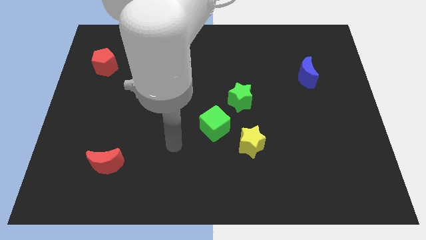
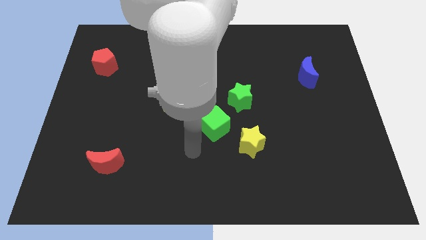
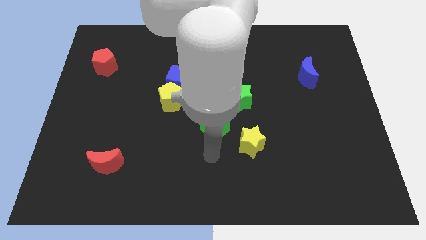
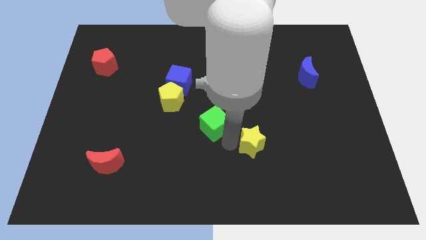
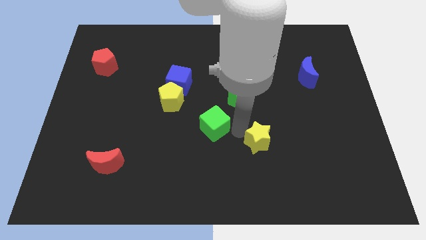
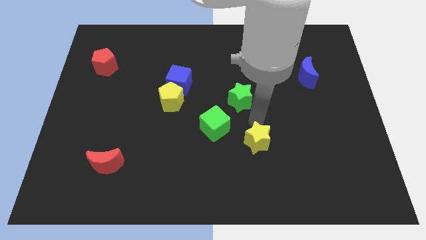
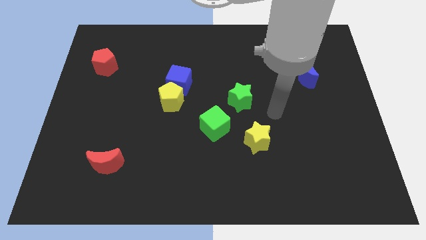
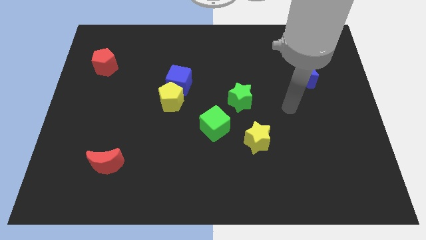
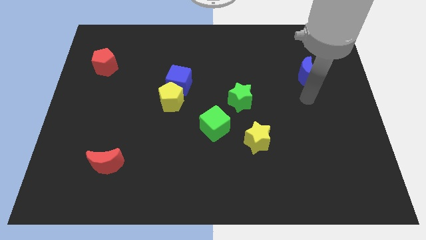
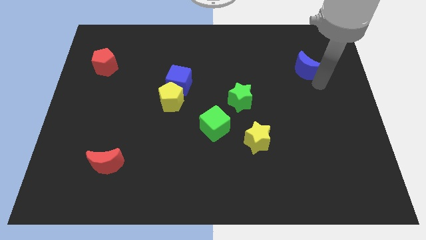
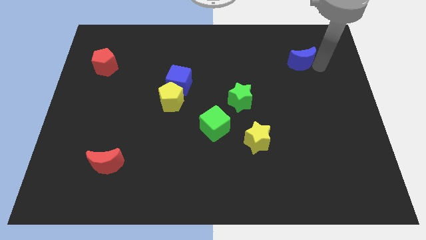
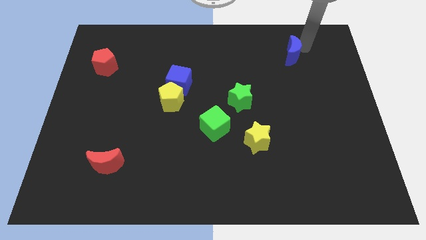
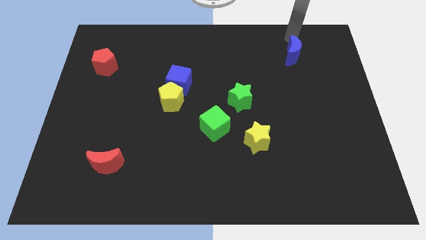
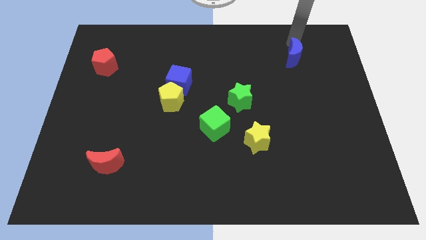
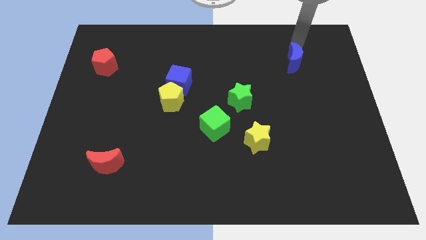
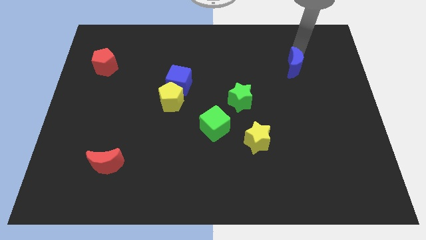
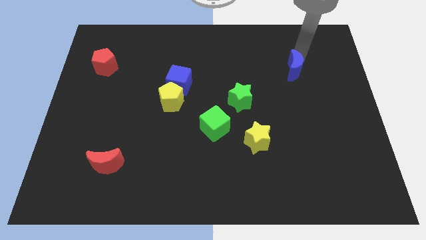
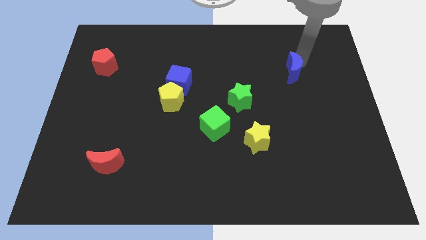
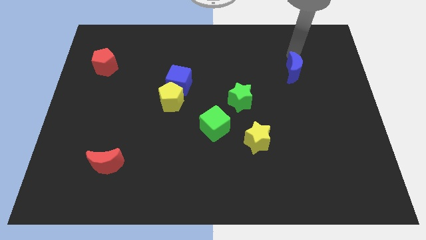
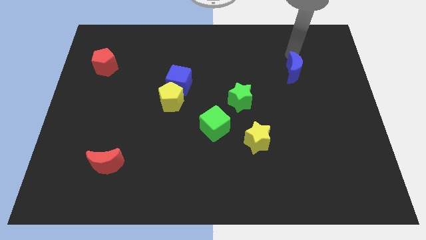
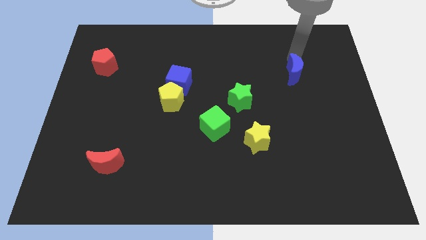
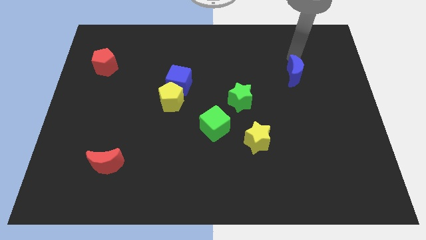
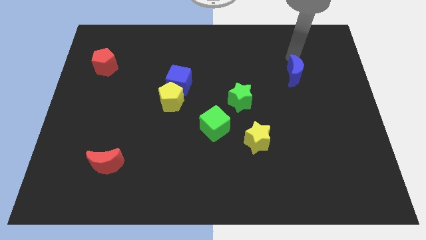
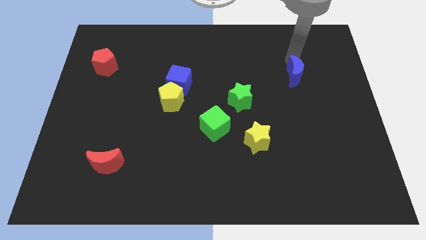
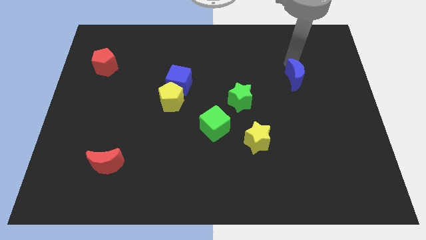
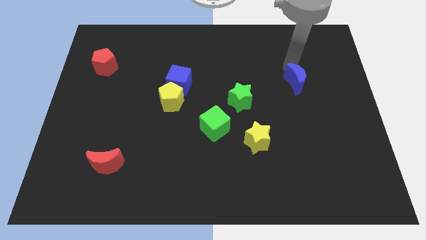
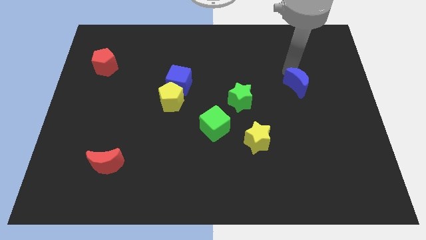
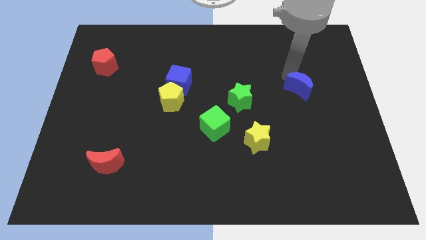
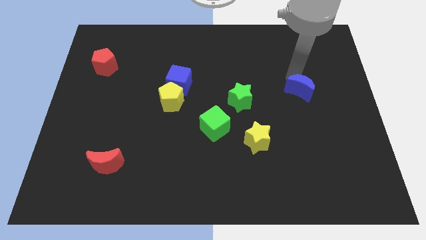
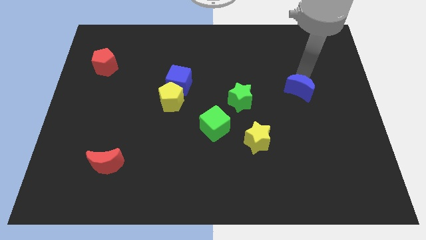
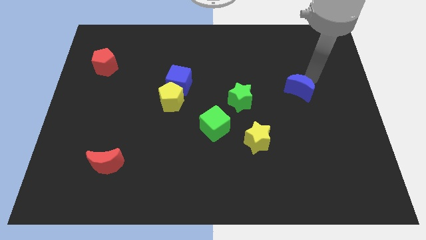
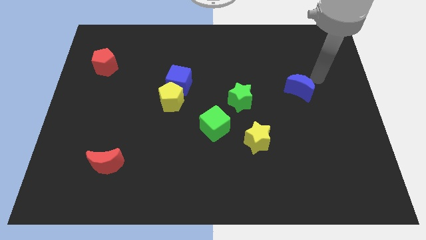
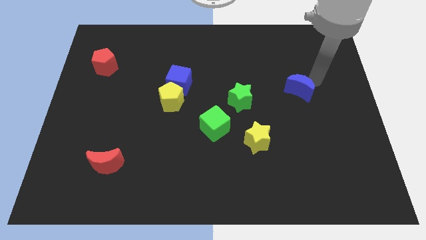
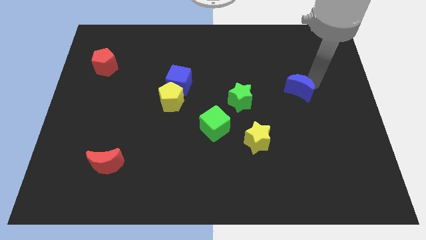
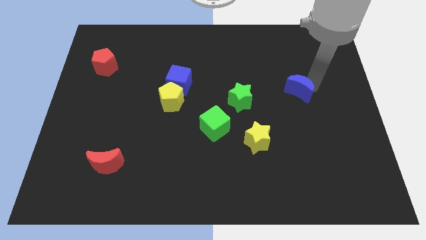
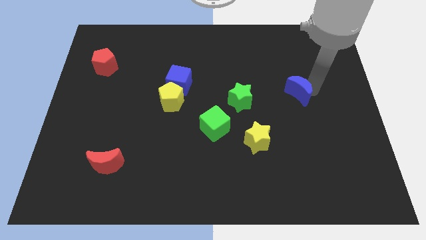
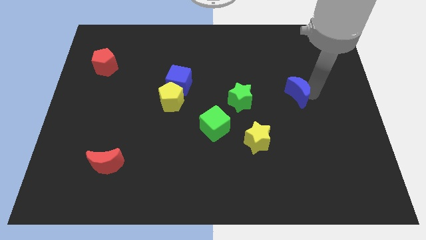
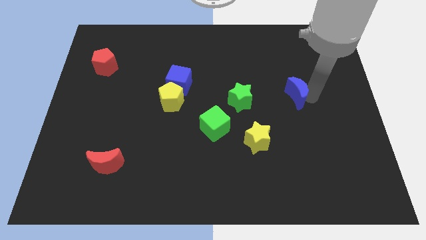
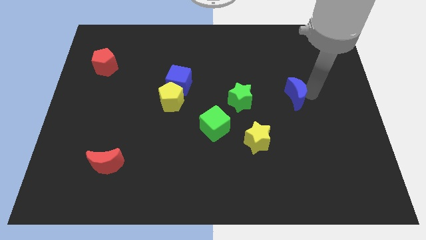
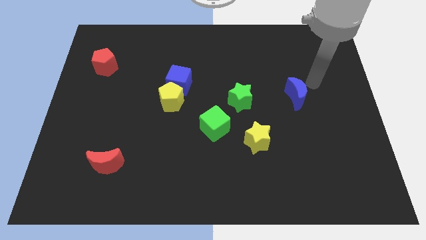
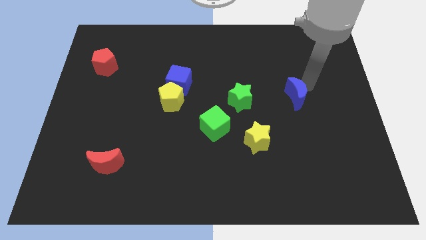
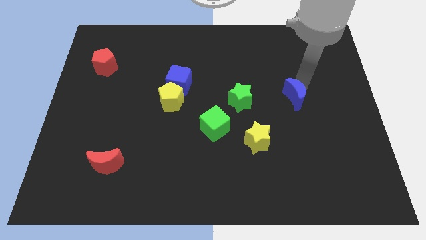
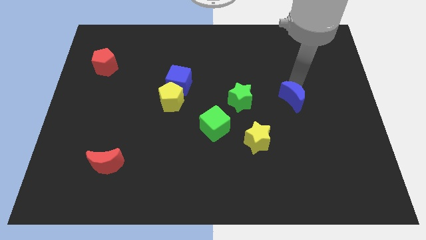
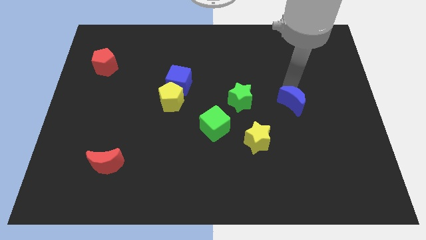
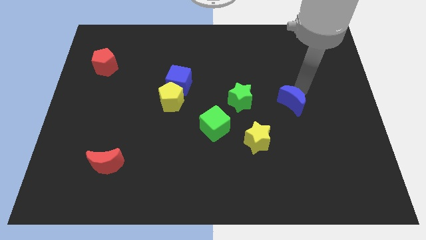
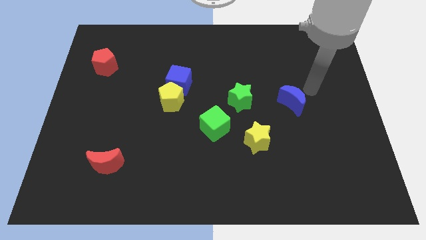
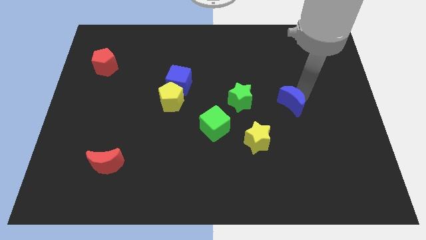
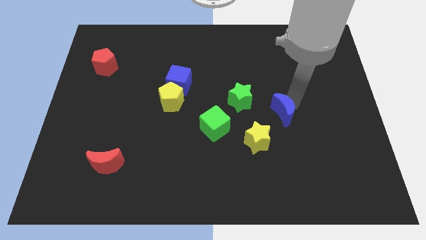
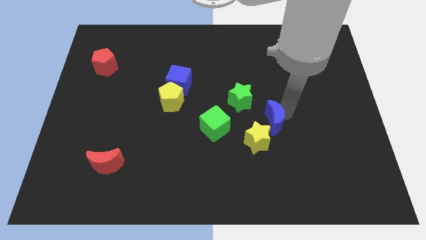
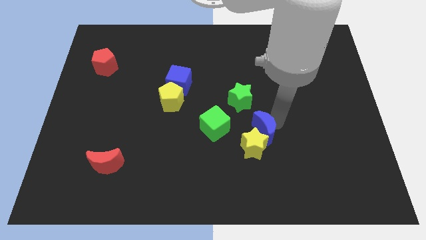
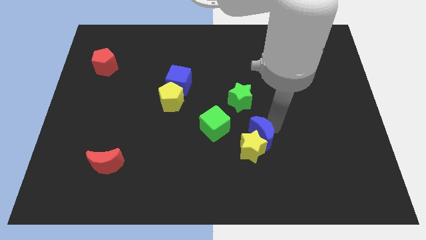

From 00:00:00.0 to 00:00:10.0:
slide the blue moon diagonally downwards and to the left

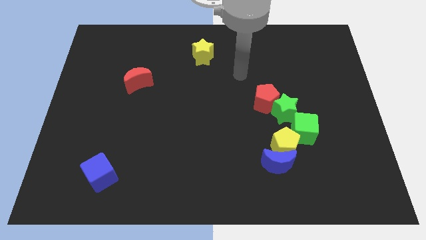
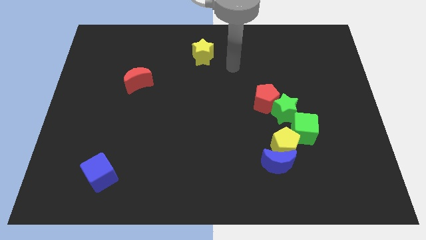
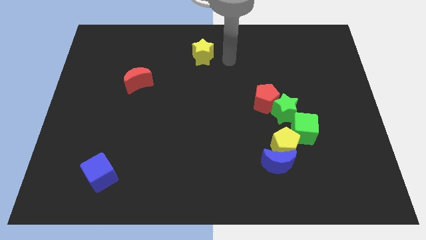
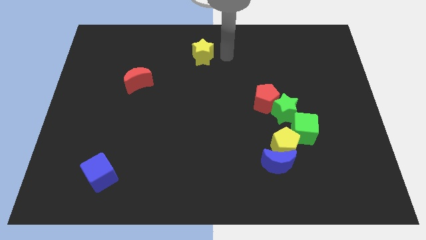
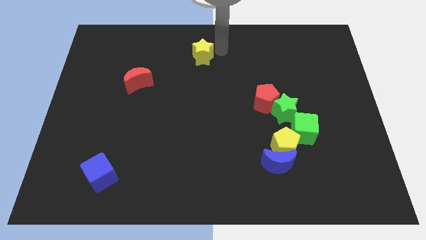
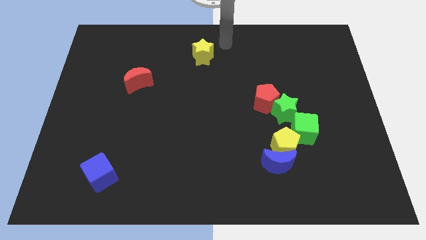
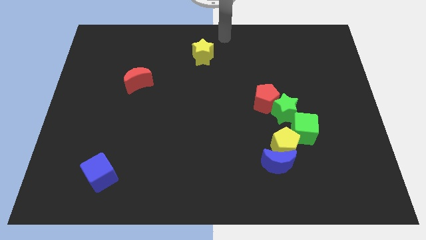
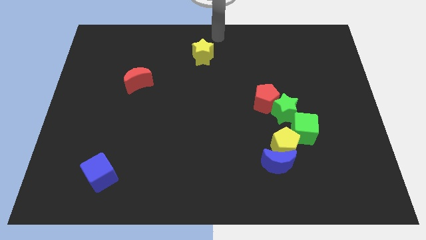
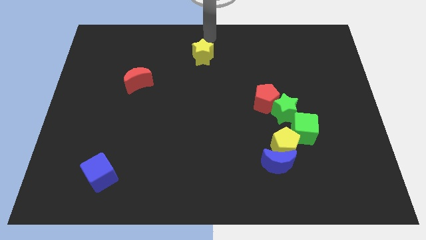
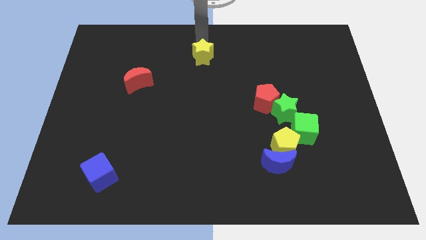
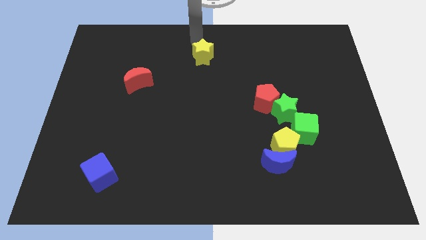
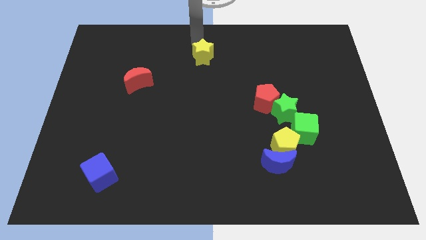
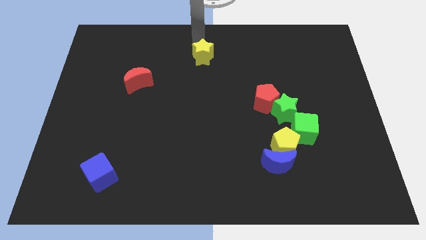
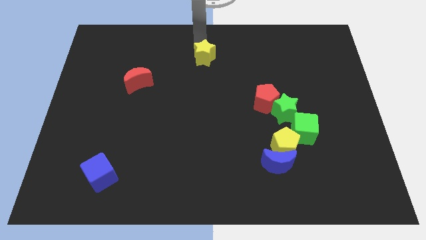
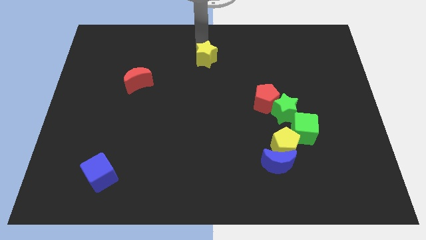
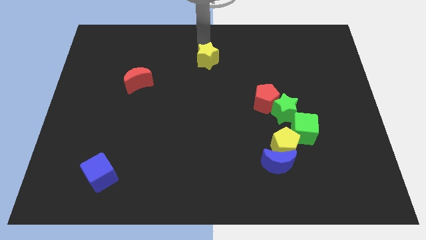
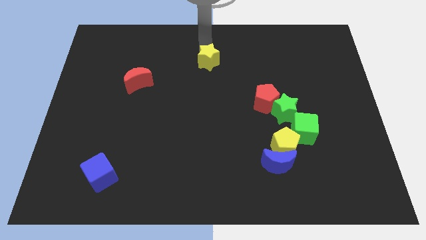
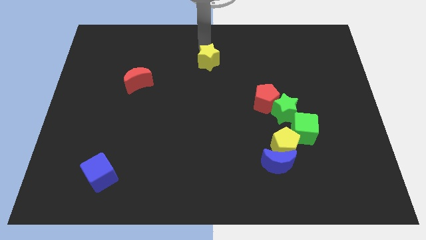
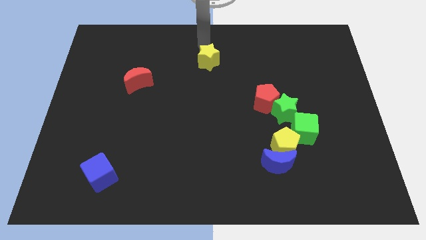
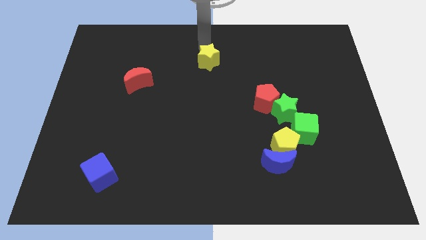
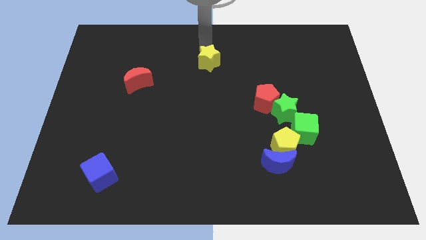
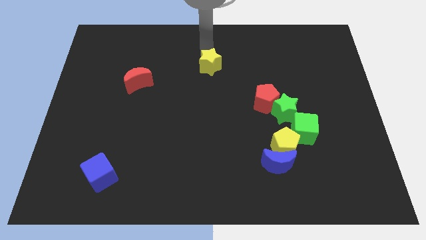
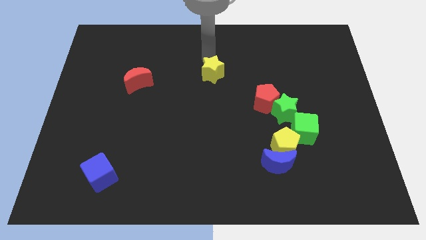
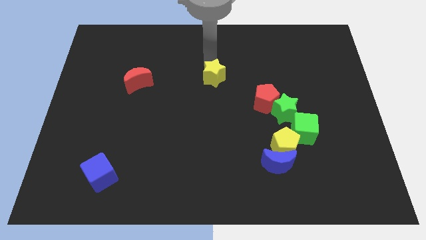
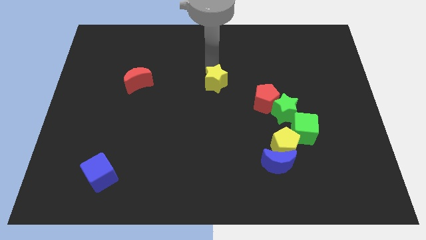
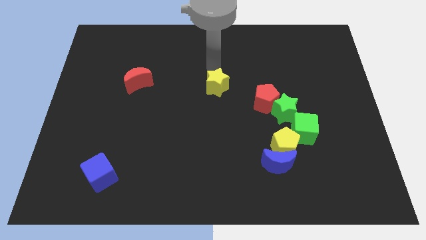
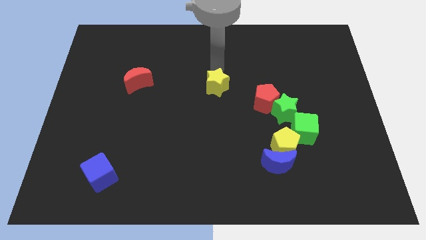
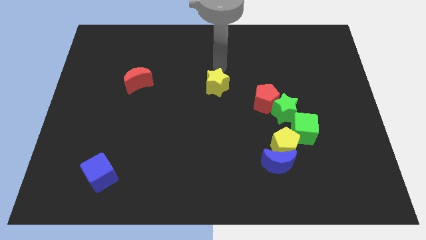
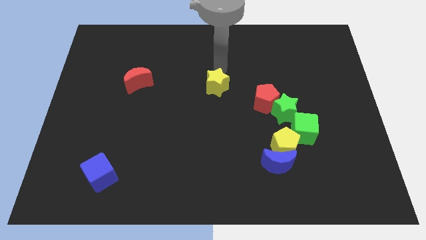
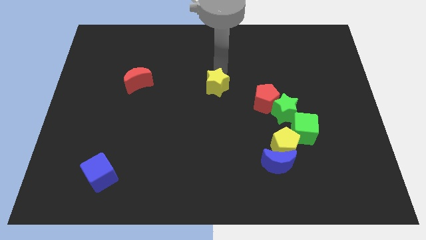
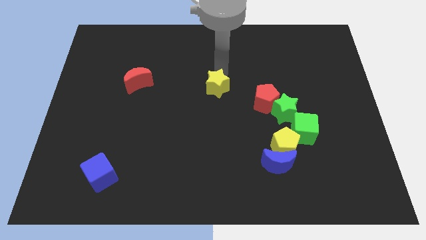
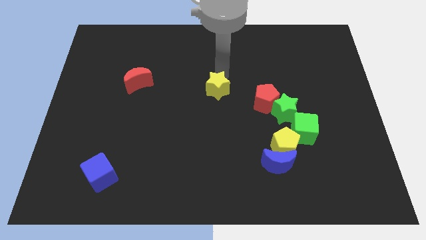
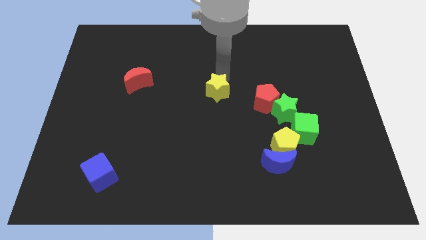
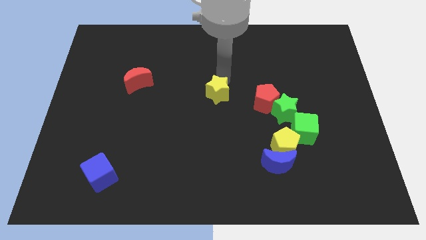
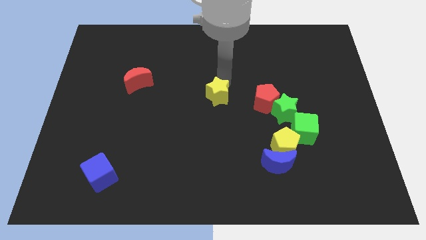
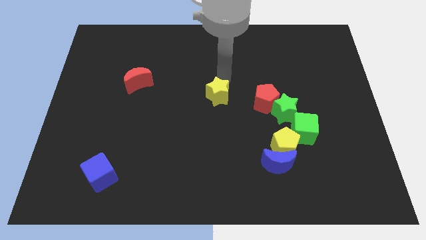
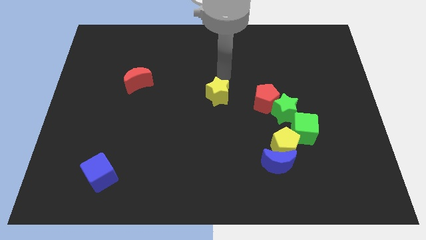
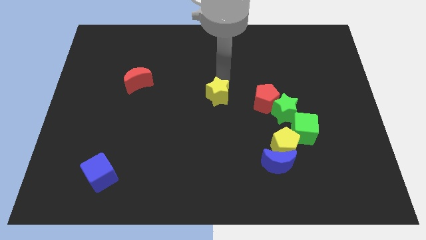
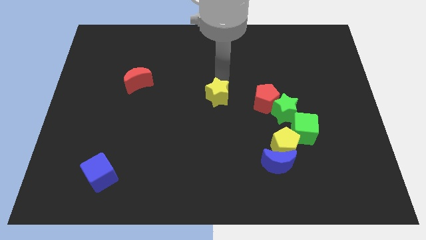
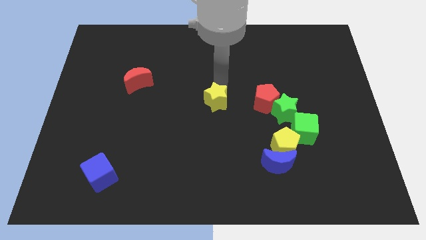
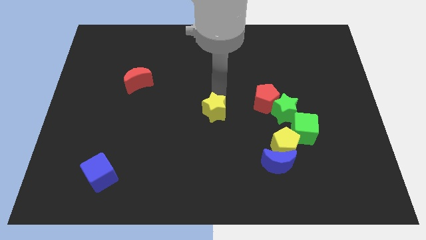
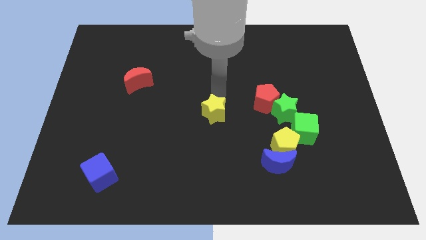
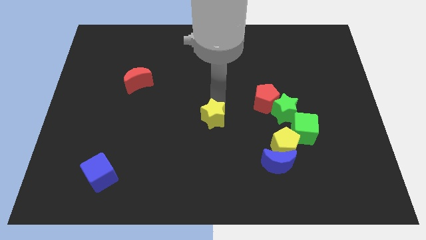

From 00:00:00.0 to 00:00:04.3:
push the yellow star downwards
